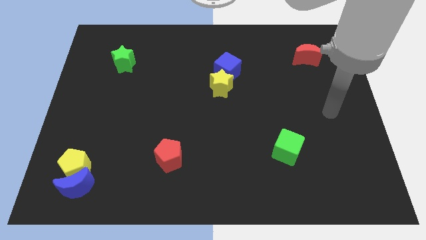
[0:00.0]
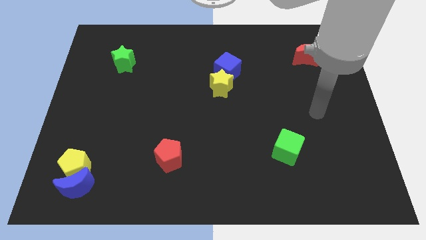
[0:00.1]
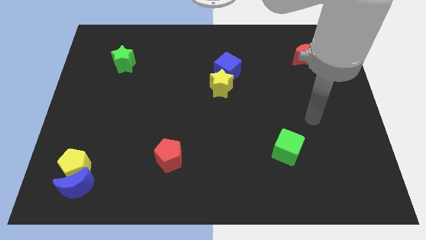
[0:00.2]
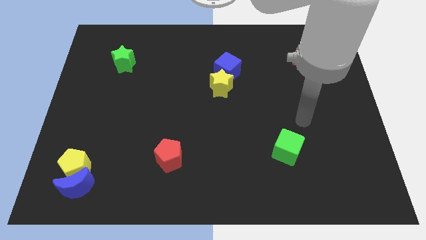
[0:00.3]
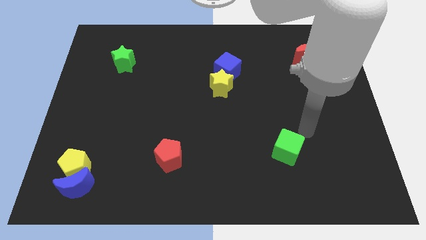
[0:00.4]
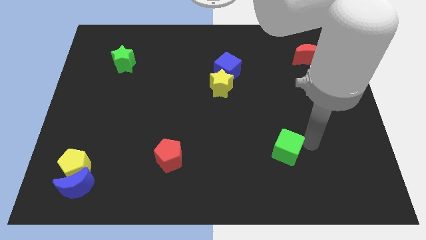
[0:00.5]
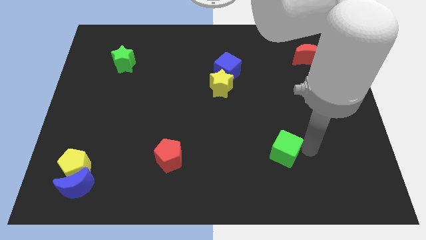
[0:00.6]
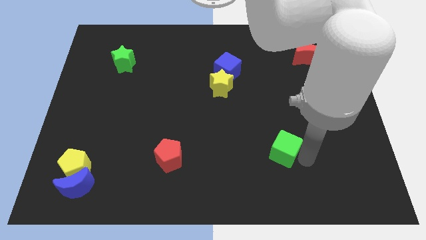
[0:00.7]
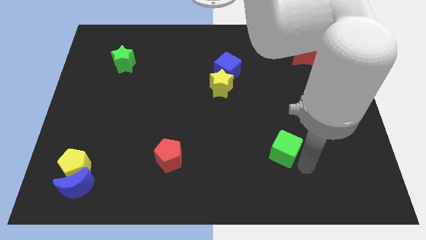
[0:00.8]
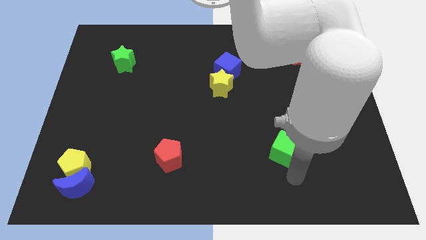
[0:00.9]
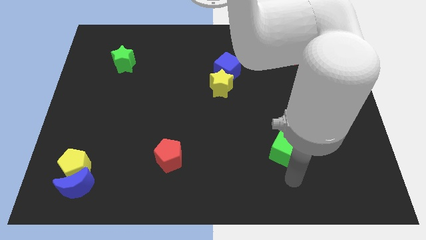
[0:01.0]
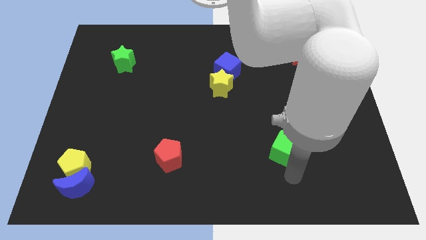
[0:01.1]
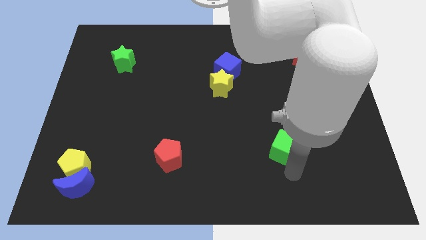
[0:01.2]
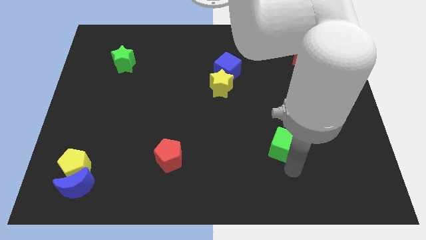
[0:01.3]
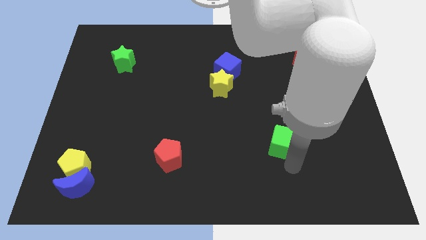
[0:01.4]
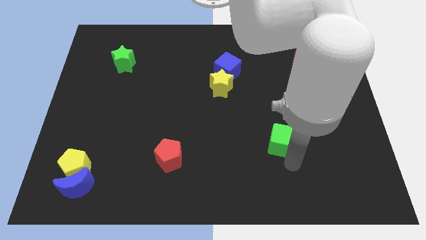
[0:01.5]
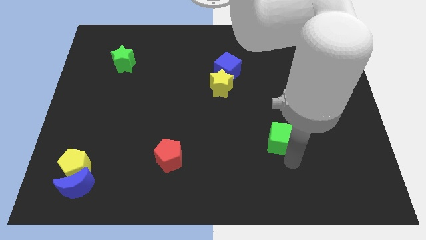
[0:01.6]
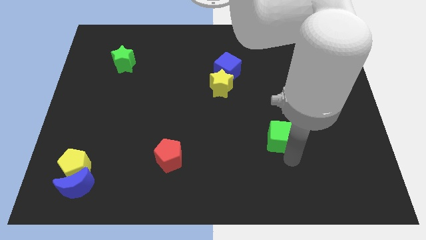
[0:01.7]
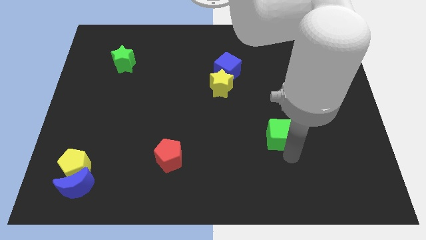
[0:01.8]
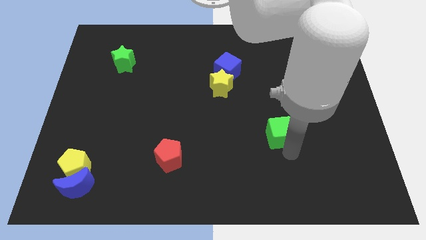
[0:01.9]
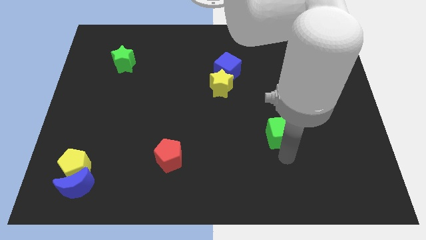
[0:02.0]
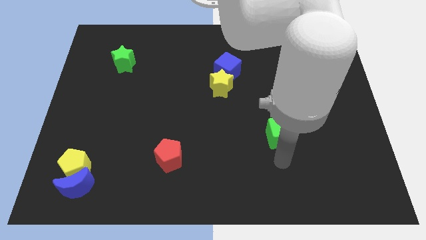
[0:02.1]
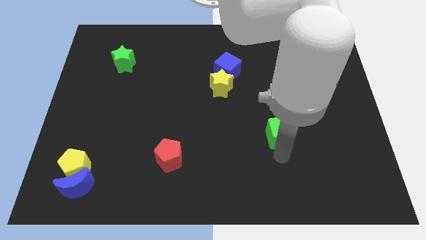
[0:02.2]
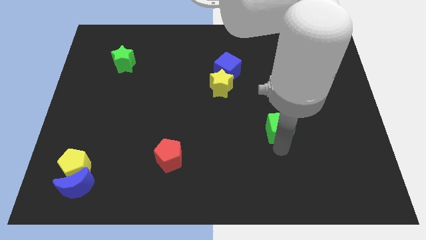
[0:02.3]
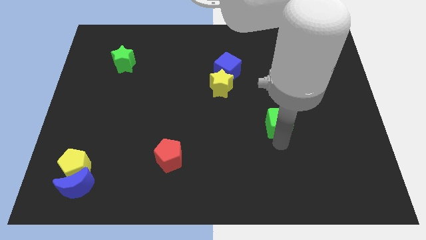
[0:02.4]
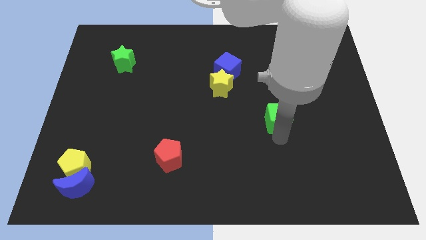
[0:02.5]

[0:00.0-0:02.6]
slightly push the green cube upwards

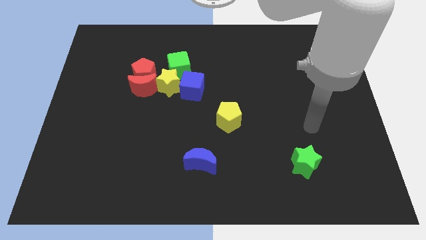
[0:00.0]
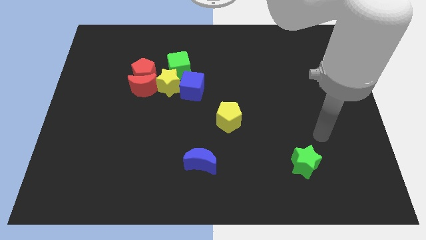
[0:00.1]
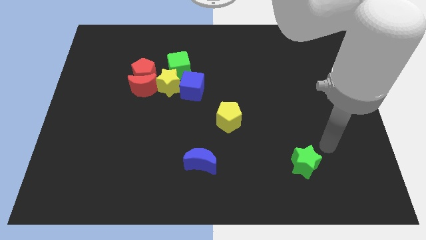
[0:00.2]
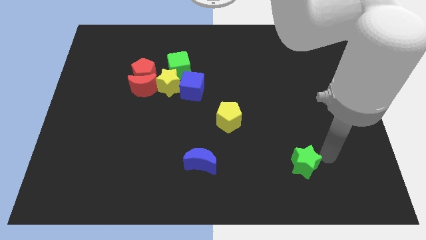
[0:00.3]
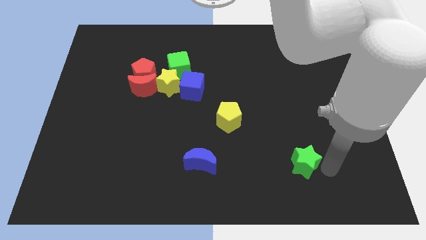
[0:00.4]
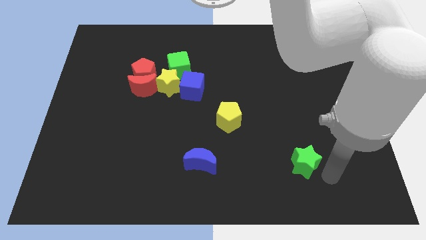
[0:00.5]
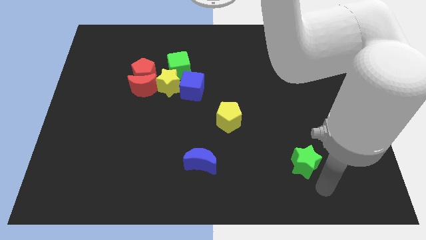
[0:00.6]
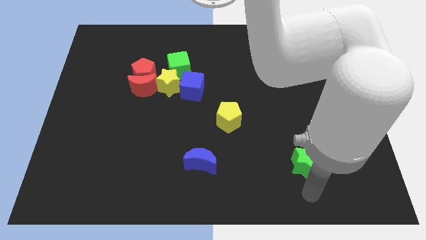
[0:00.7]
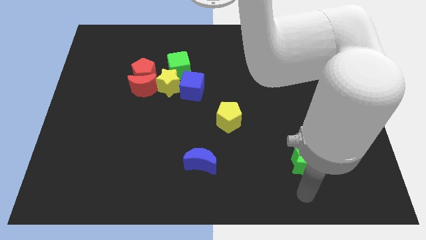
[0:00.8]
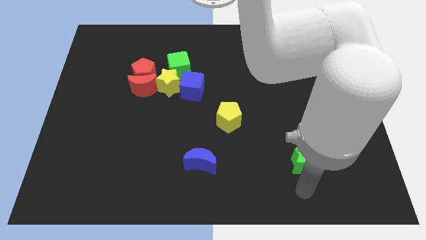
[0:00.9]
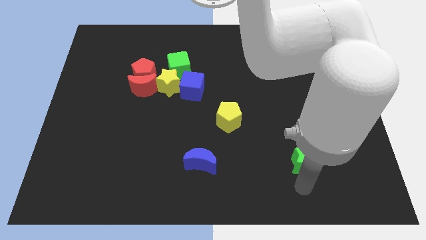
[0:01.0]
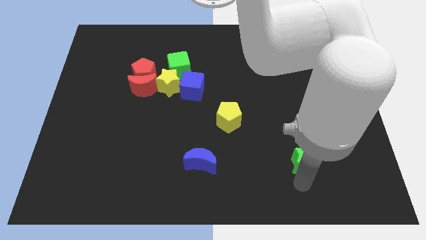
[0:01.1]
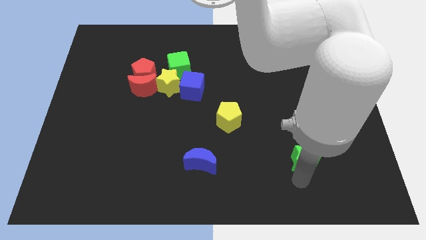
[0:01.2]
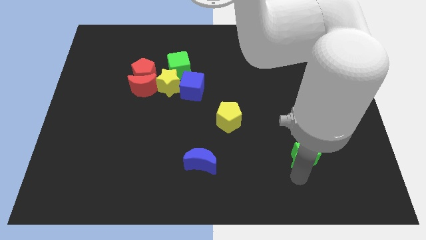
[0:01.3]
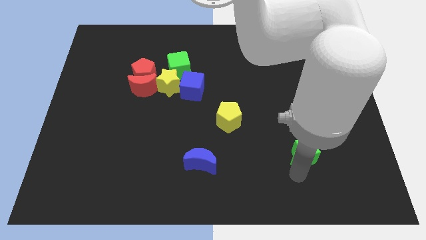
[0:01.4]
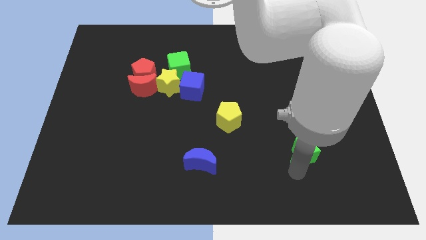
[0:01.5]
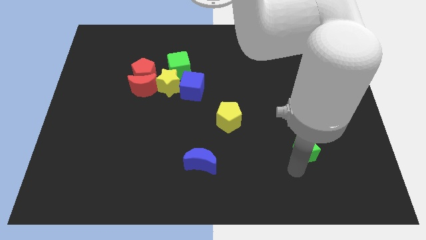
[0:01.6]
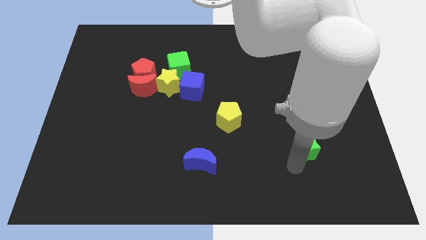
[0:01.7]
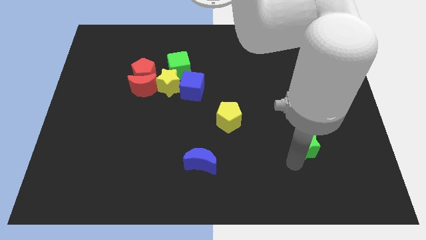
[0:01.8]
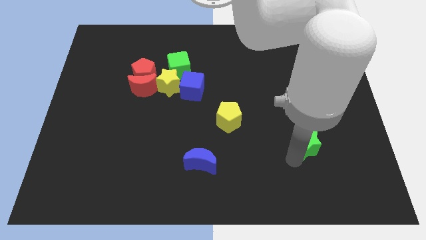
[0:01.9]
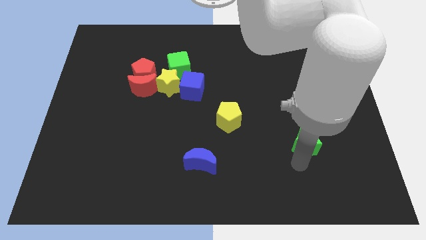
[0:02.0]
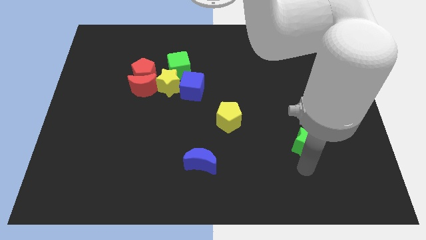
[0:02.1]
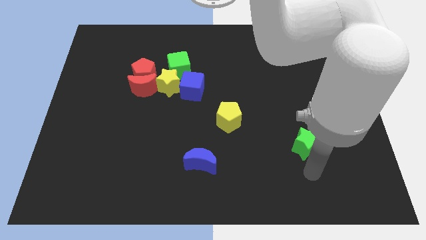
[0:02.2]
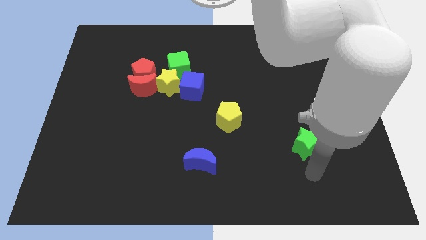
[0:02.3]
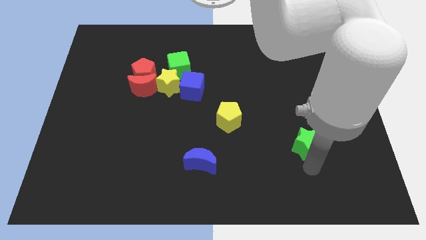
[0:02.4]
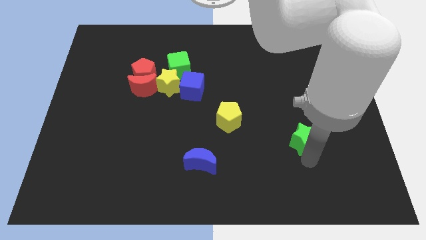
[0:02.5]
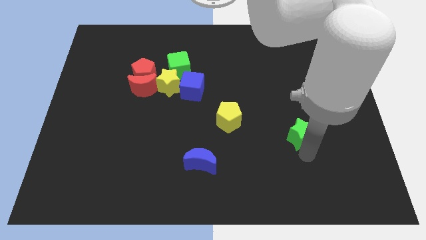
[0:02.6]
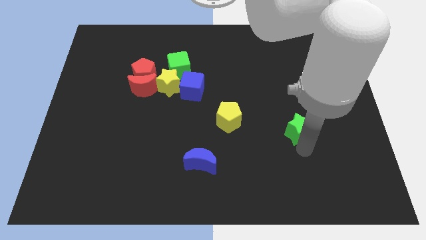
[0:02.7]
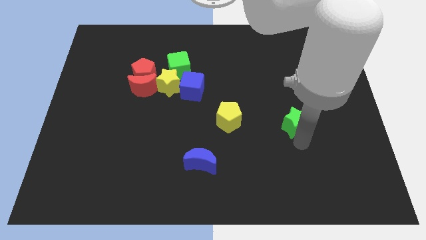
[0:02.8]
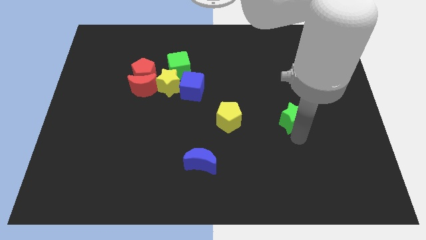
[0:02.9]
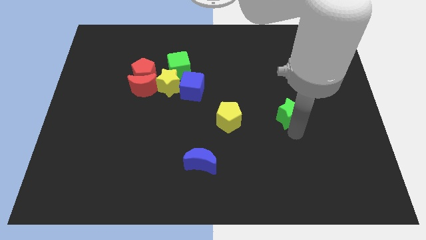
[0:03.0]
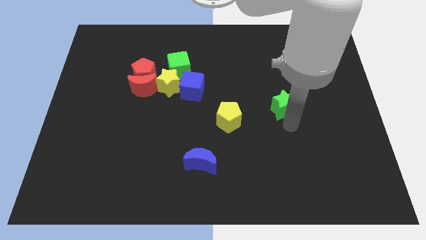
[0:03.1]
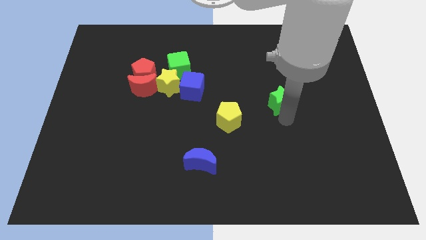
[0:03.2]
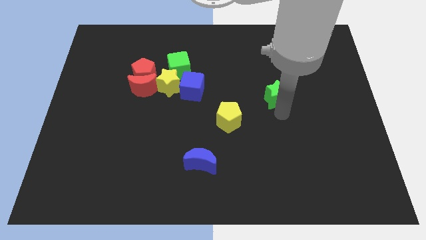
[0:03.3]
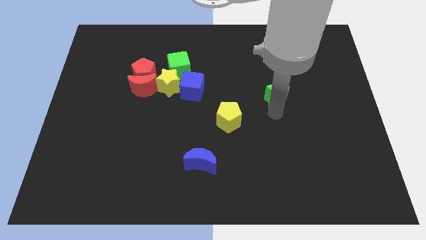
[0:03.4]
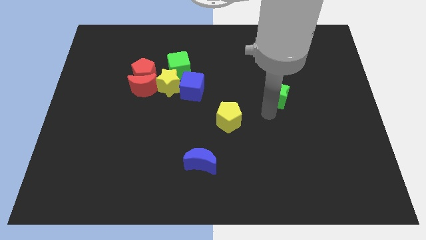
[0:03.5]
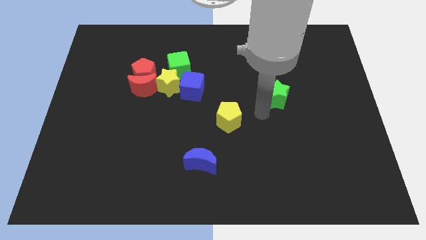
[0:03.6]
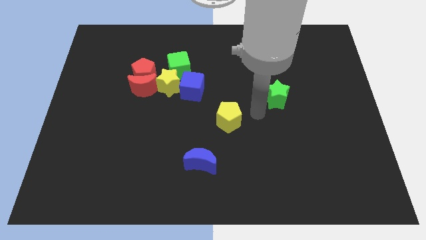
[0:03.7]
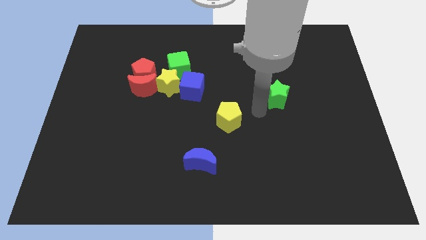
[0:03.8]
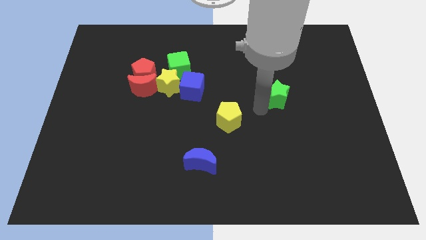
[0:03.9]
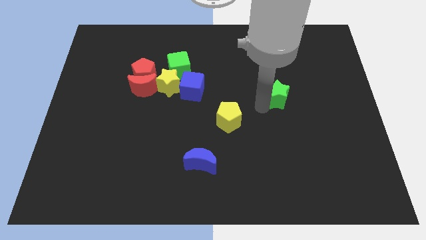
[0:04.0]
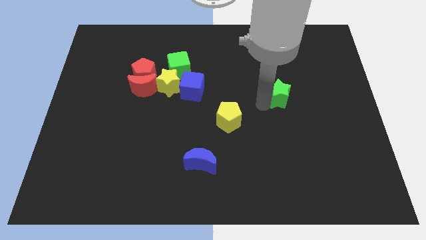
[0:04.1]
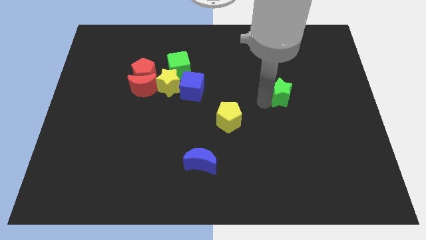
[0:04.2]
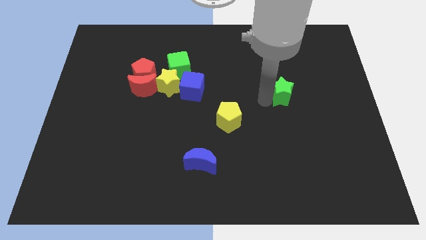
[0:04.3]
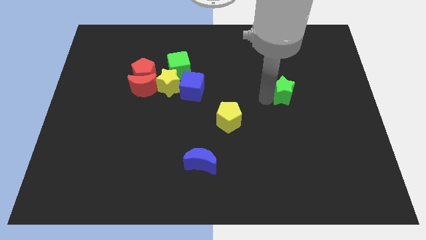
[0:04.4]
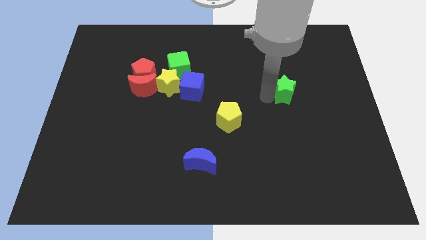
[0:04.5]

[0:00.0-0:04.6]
move the green star up

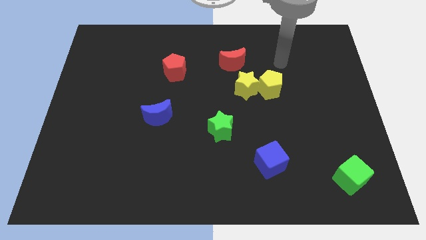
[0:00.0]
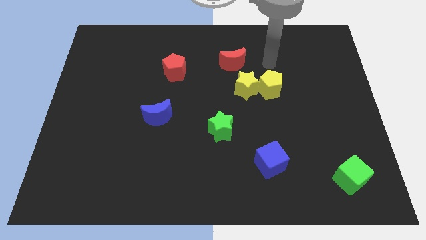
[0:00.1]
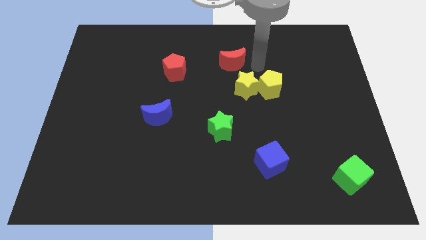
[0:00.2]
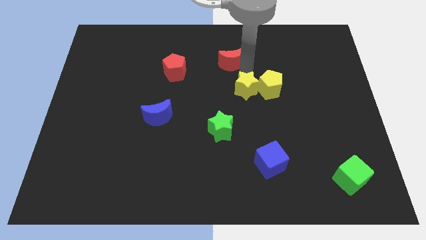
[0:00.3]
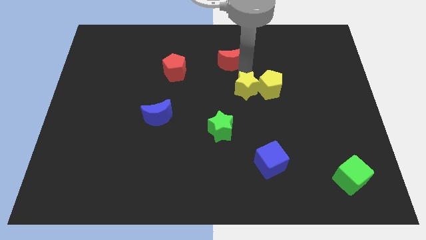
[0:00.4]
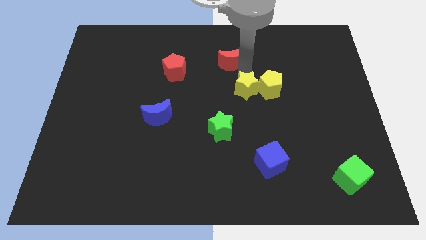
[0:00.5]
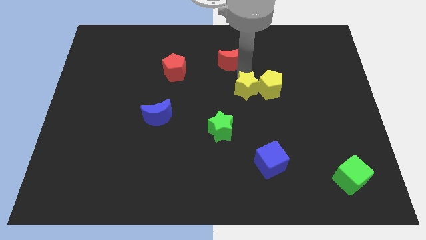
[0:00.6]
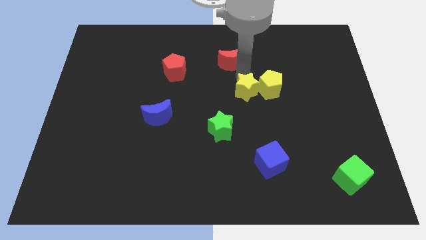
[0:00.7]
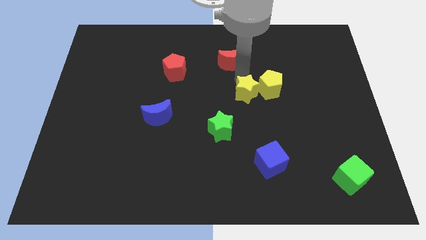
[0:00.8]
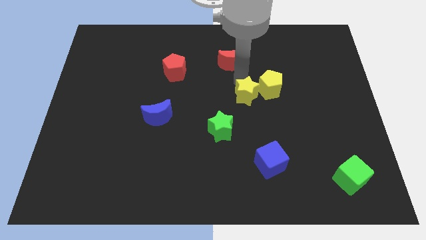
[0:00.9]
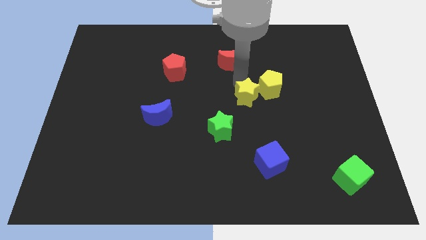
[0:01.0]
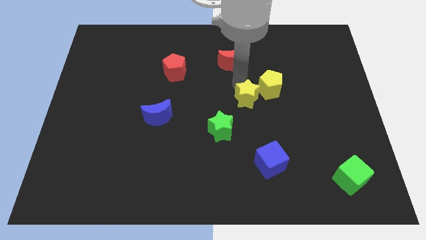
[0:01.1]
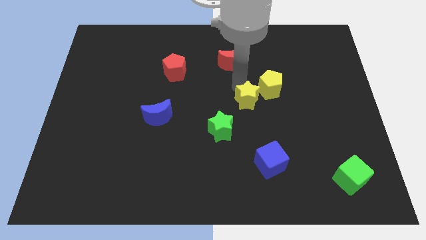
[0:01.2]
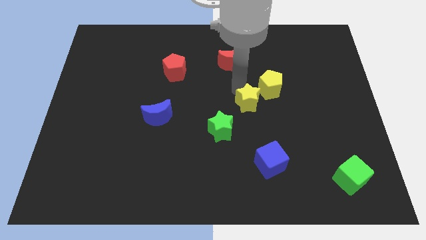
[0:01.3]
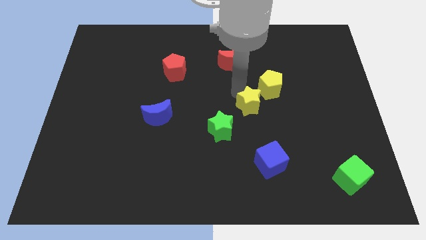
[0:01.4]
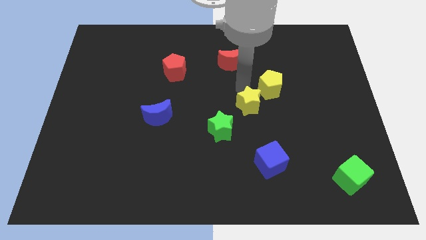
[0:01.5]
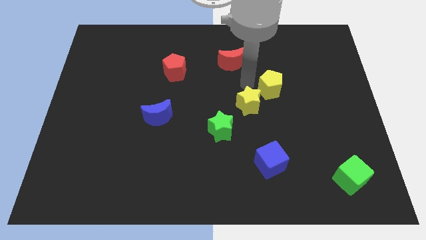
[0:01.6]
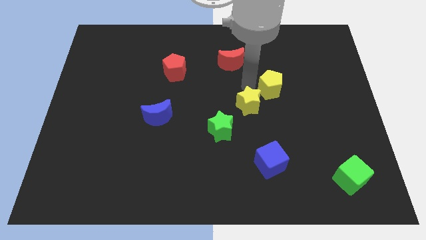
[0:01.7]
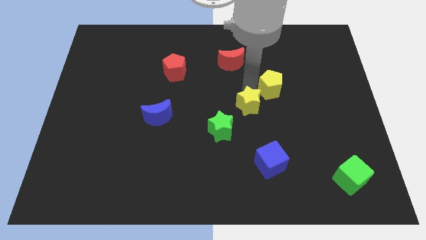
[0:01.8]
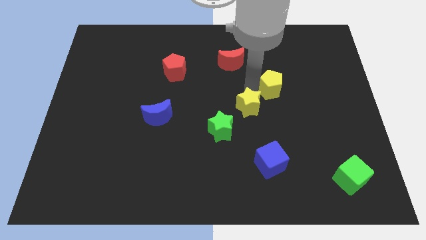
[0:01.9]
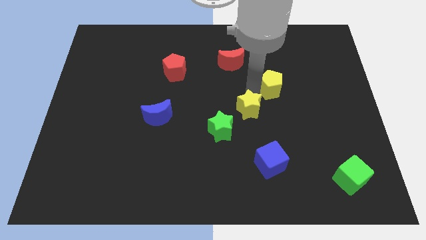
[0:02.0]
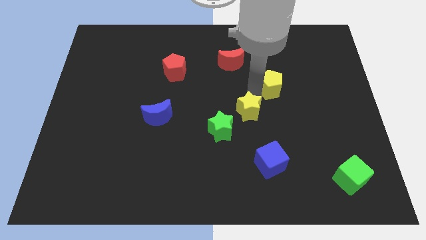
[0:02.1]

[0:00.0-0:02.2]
slightly move the yellow star down
